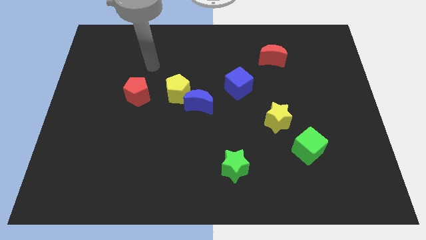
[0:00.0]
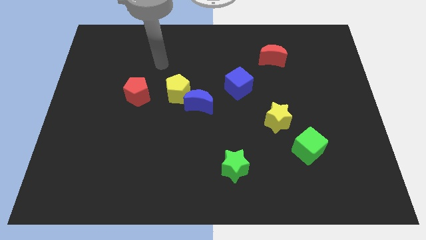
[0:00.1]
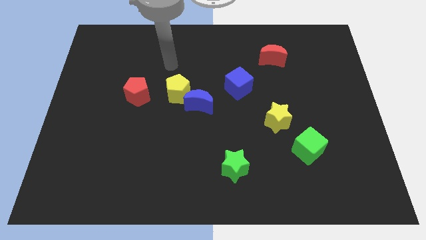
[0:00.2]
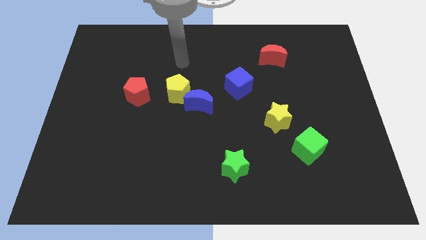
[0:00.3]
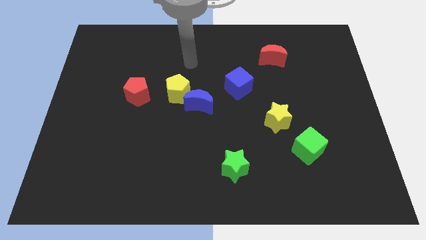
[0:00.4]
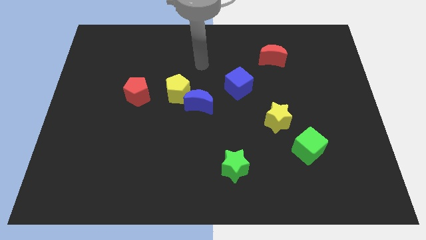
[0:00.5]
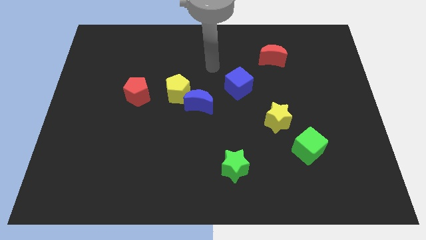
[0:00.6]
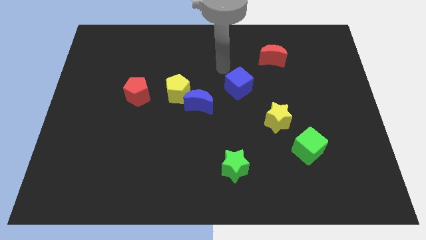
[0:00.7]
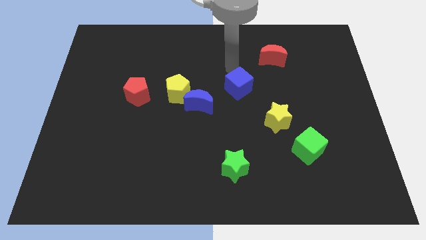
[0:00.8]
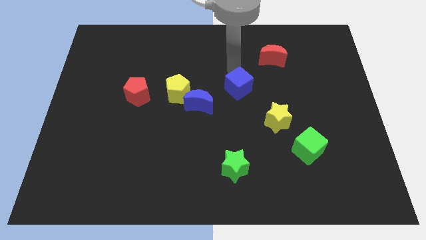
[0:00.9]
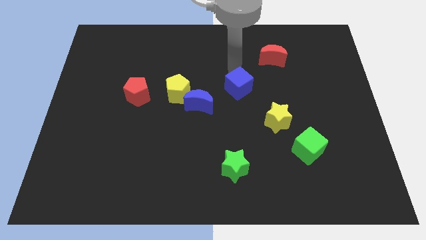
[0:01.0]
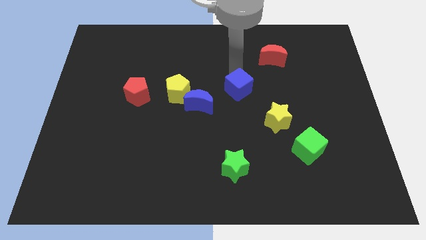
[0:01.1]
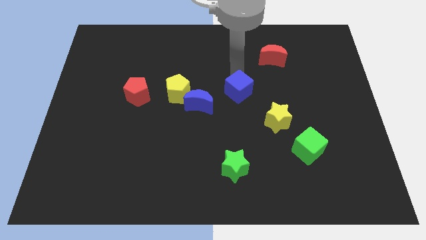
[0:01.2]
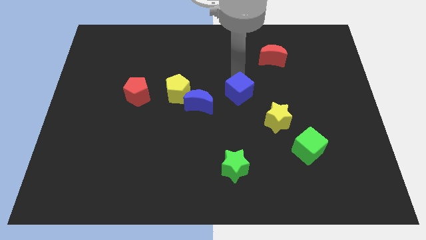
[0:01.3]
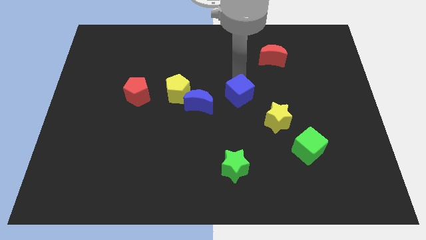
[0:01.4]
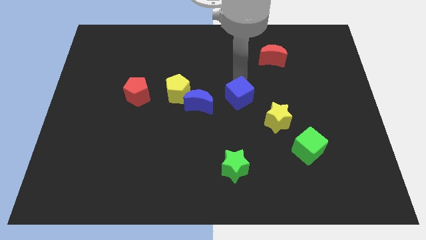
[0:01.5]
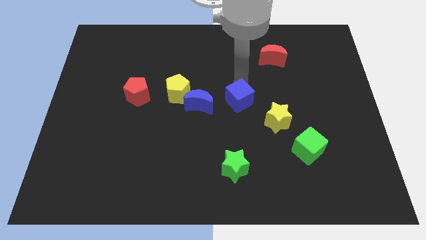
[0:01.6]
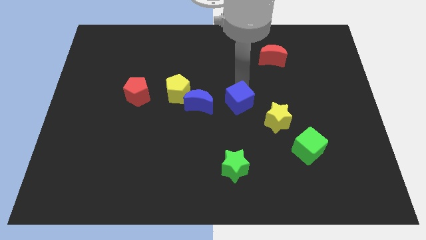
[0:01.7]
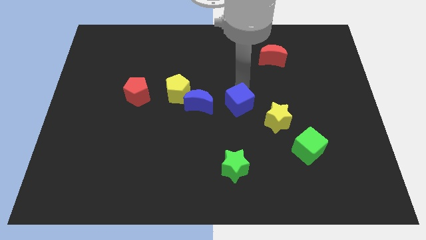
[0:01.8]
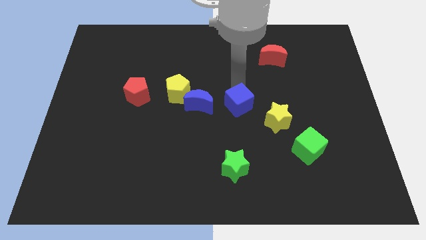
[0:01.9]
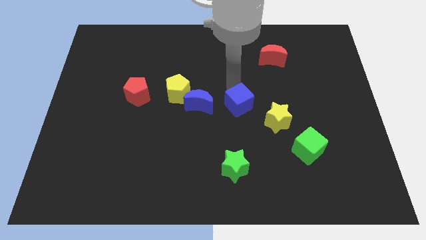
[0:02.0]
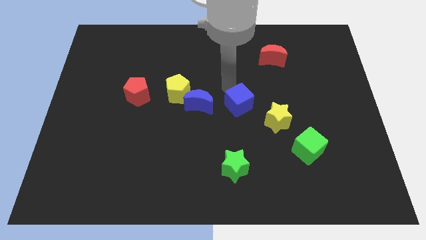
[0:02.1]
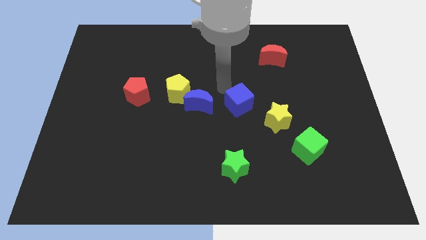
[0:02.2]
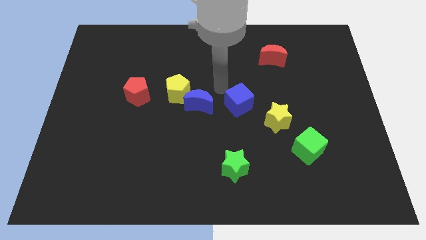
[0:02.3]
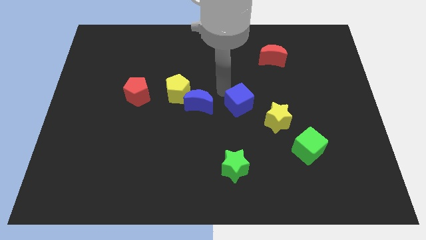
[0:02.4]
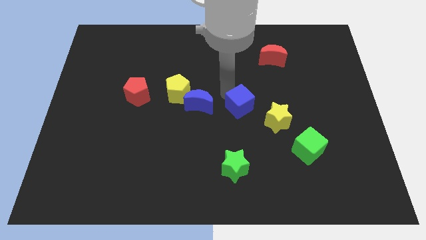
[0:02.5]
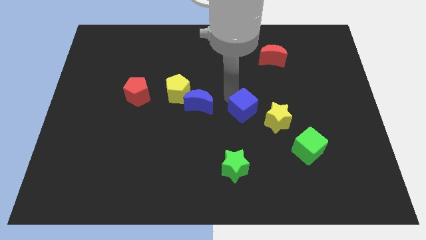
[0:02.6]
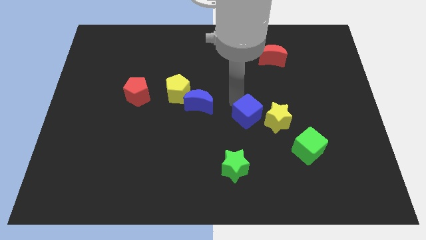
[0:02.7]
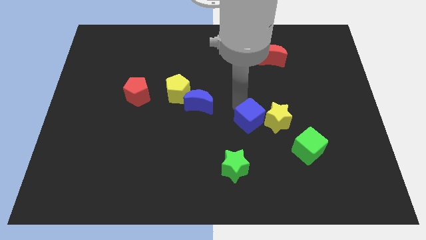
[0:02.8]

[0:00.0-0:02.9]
push the blue cube downwards and right diagonally a little bit

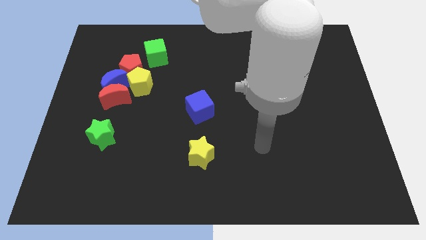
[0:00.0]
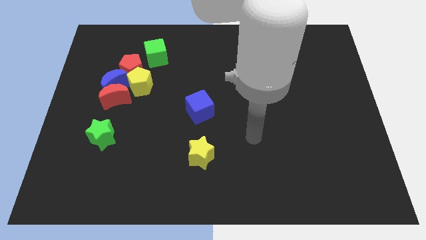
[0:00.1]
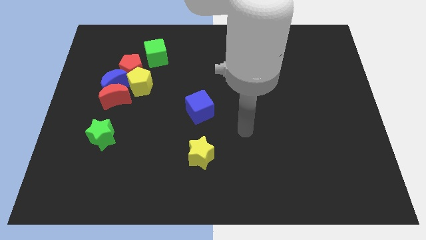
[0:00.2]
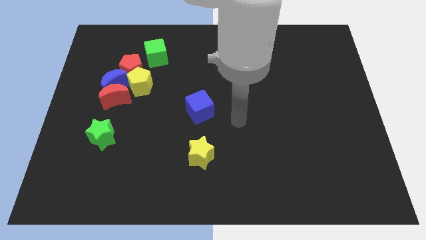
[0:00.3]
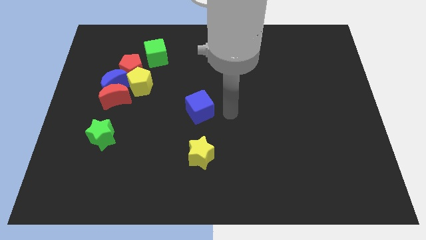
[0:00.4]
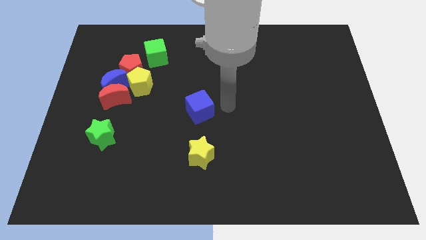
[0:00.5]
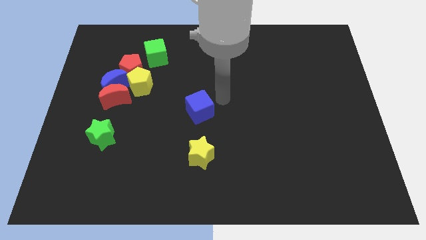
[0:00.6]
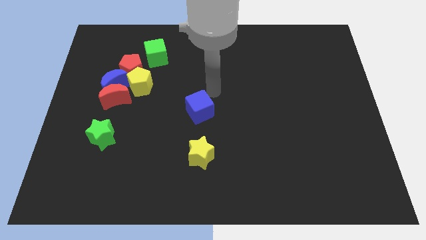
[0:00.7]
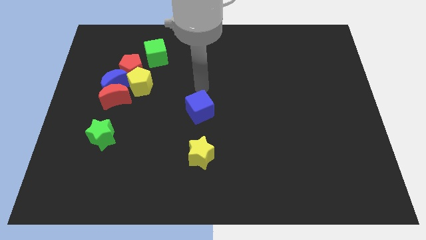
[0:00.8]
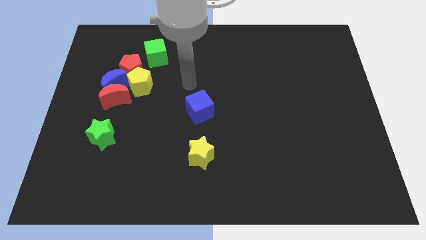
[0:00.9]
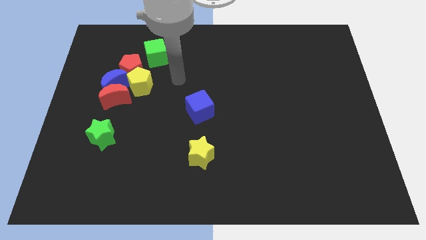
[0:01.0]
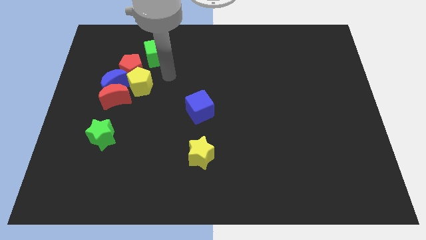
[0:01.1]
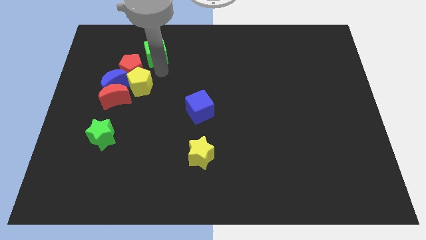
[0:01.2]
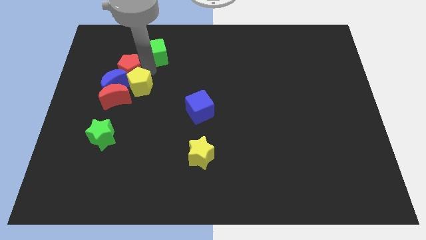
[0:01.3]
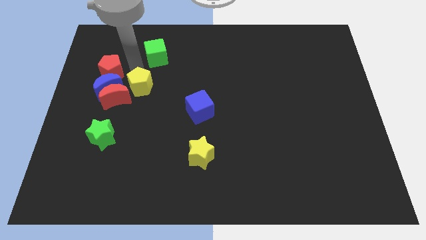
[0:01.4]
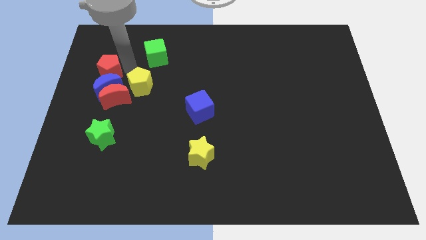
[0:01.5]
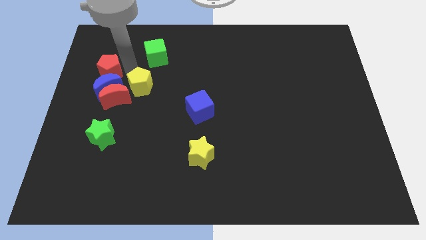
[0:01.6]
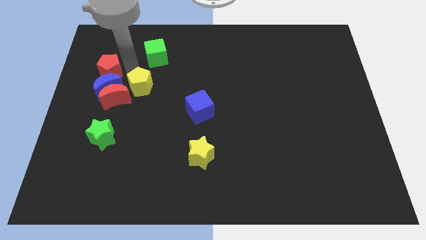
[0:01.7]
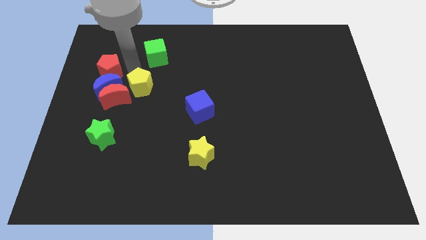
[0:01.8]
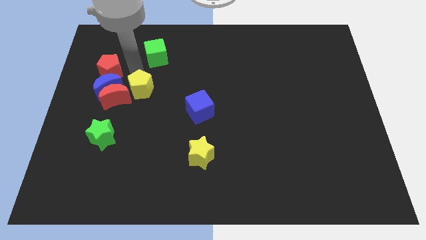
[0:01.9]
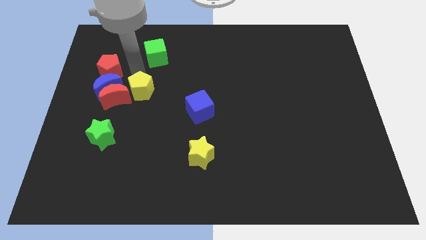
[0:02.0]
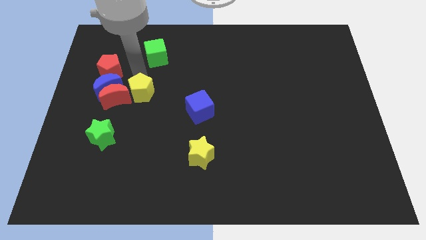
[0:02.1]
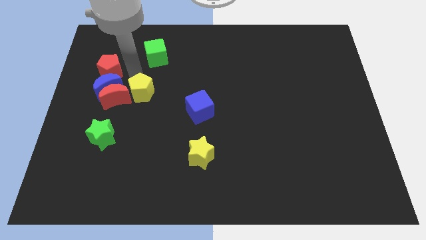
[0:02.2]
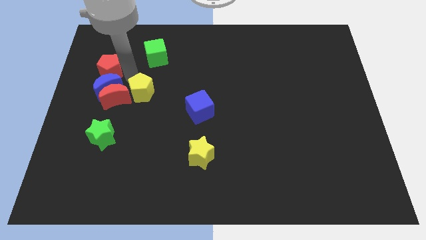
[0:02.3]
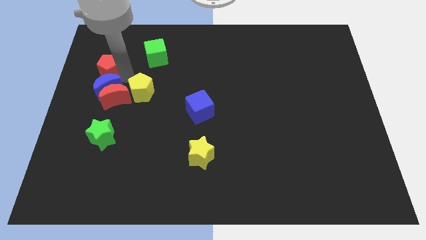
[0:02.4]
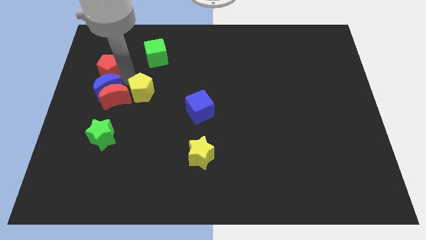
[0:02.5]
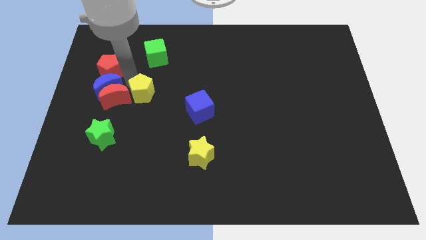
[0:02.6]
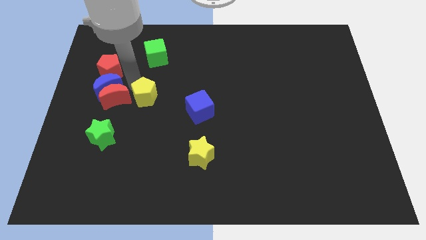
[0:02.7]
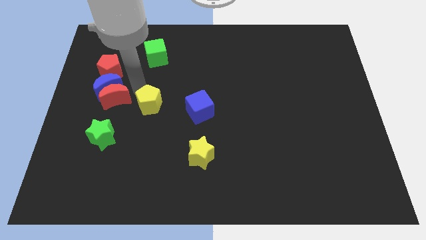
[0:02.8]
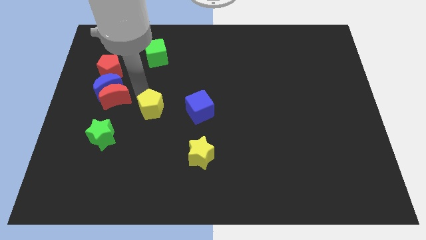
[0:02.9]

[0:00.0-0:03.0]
move the yellow pentagon diagonally down and right a little

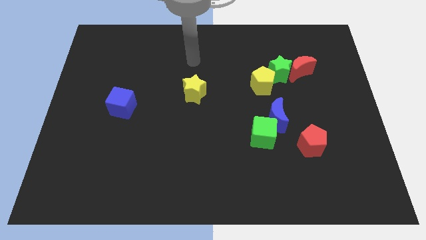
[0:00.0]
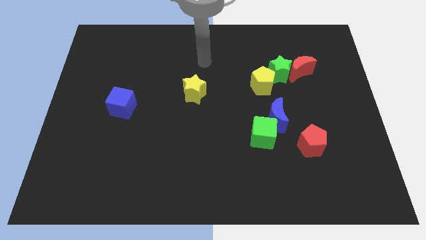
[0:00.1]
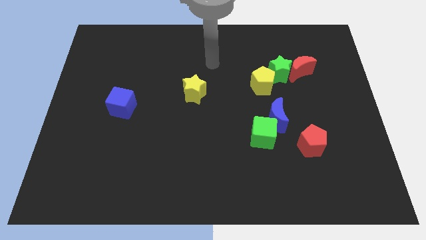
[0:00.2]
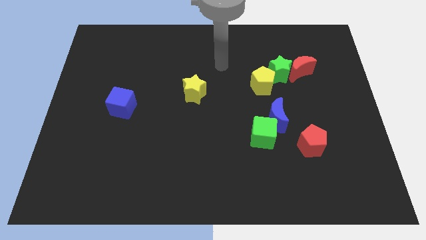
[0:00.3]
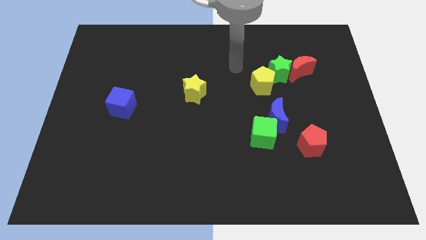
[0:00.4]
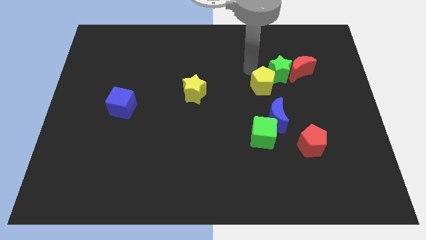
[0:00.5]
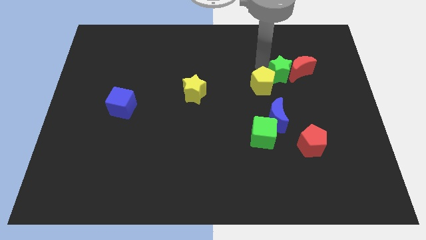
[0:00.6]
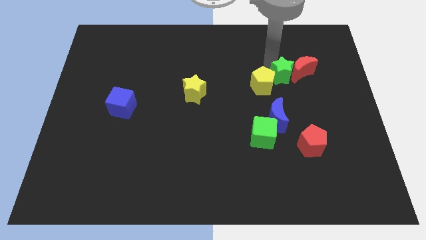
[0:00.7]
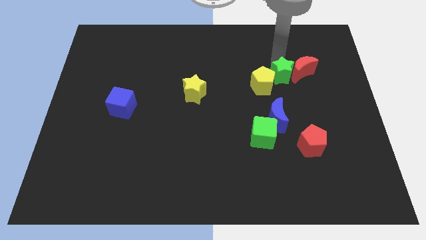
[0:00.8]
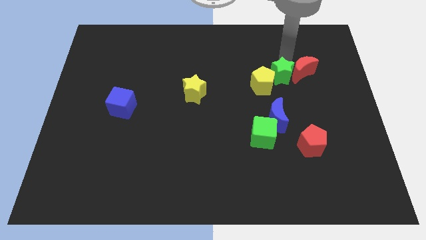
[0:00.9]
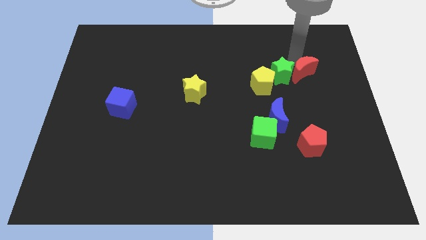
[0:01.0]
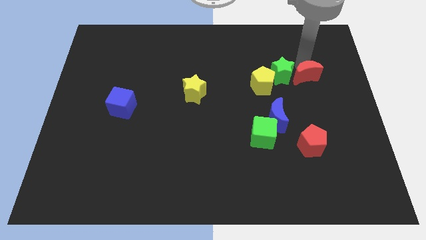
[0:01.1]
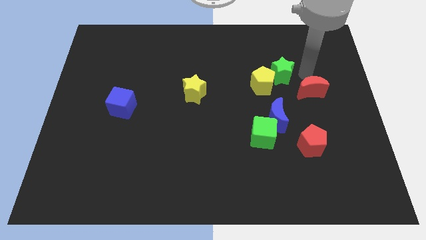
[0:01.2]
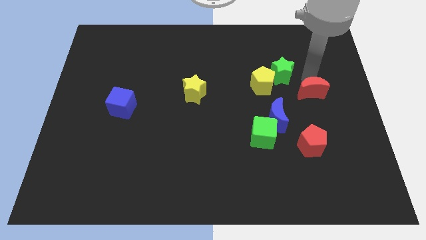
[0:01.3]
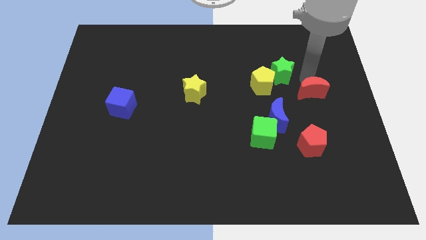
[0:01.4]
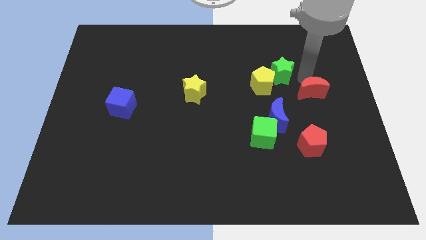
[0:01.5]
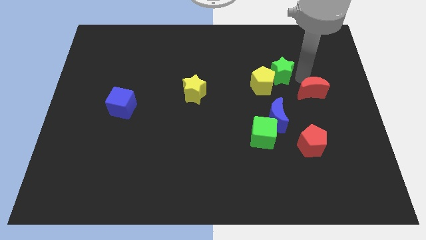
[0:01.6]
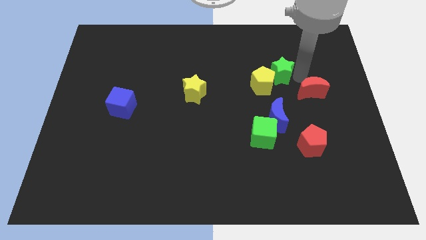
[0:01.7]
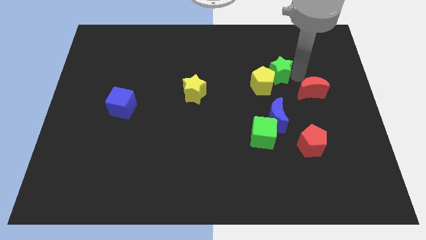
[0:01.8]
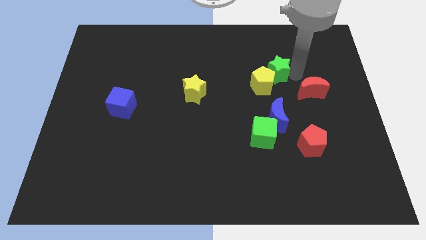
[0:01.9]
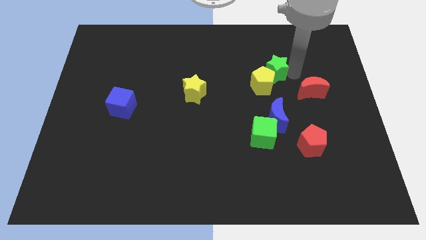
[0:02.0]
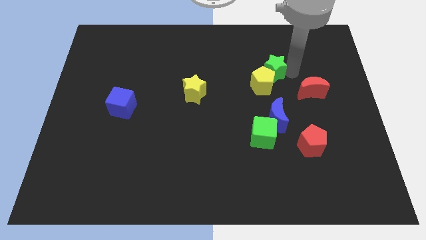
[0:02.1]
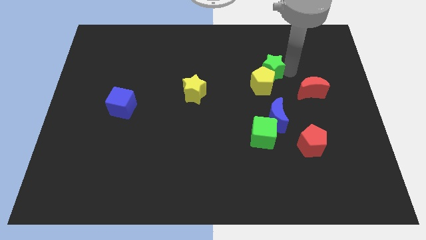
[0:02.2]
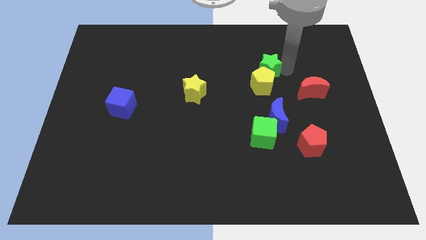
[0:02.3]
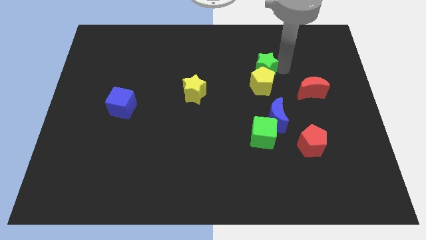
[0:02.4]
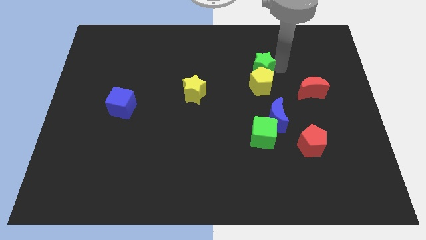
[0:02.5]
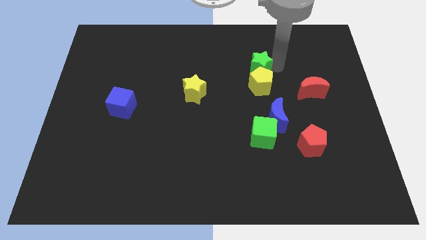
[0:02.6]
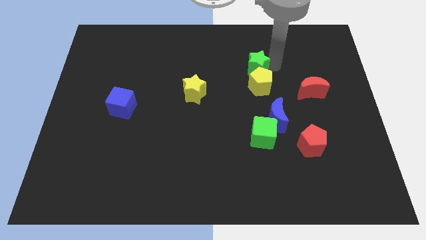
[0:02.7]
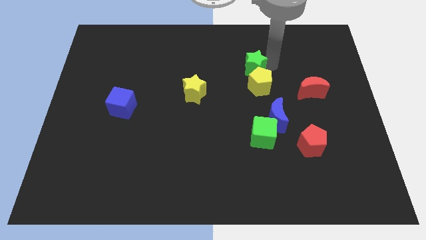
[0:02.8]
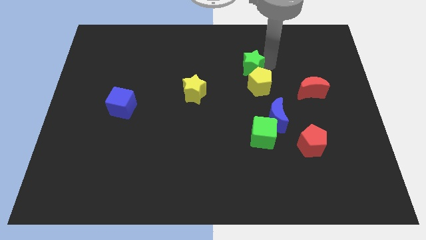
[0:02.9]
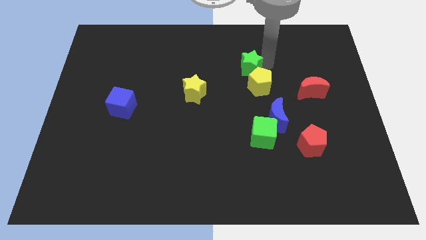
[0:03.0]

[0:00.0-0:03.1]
slide the green star a little bit left
